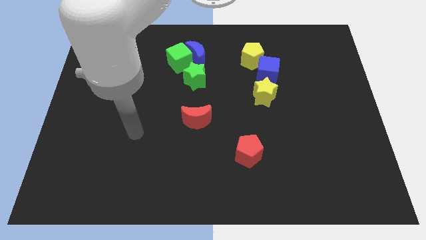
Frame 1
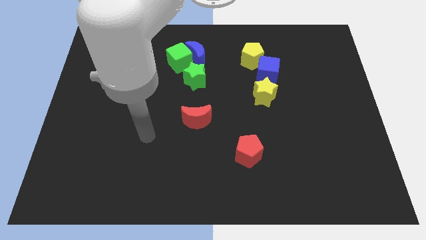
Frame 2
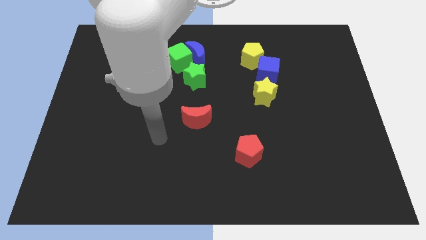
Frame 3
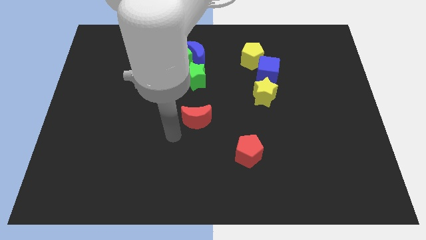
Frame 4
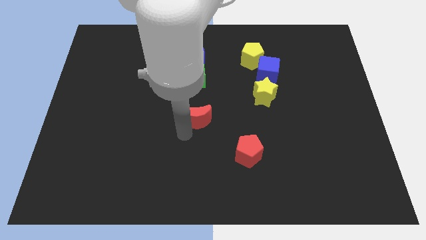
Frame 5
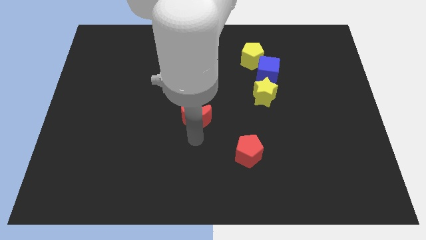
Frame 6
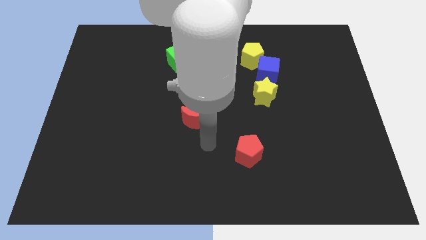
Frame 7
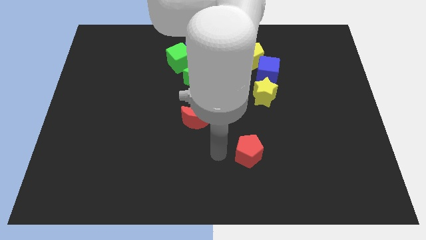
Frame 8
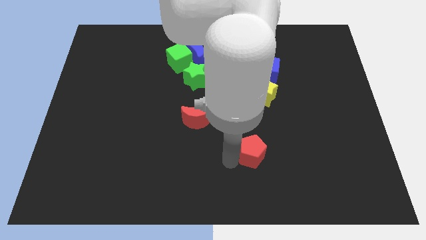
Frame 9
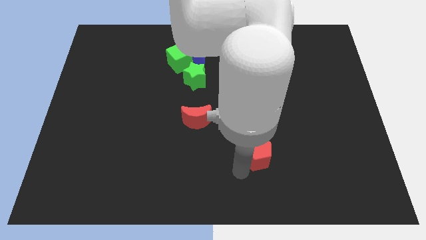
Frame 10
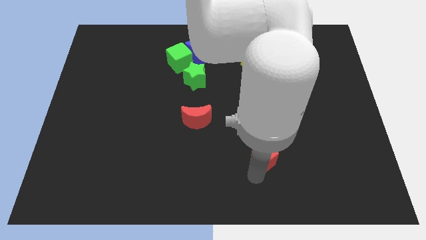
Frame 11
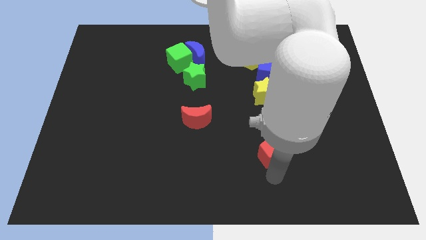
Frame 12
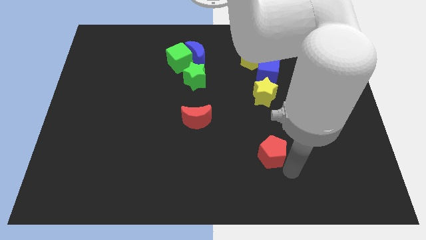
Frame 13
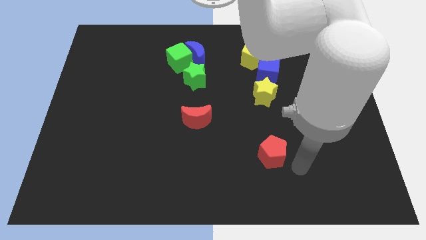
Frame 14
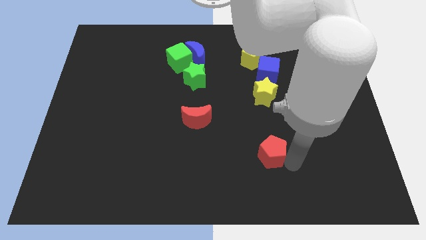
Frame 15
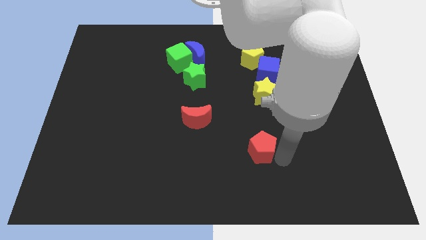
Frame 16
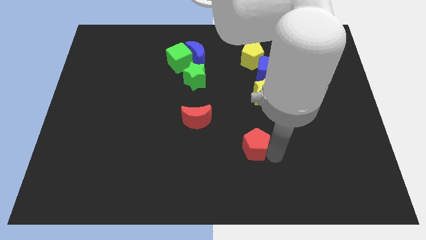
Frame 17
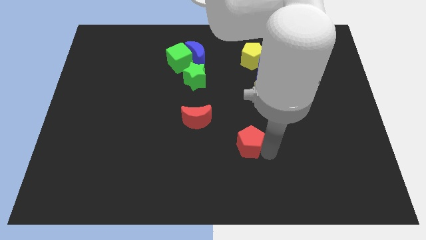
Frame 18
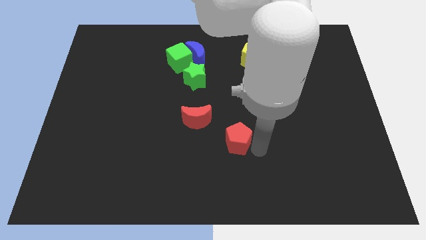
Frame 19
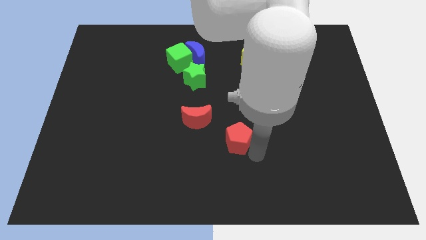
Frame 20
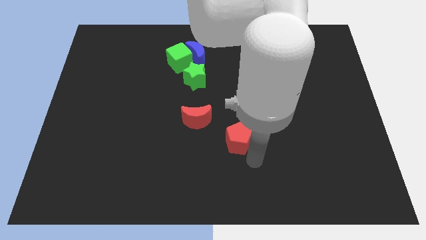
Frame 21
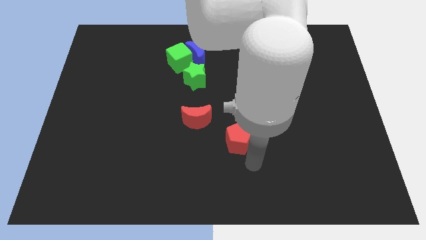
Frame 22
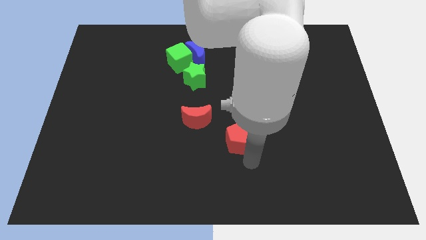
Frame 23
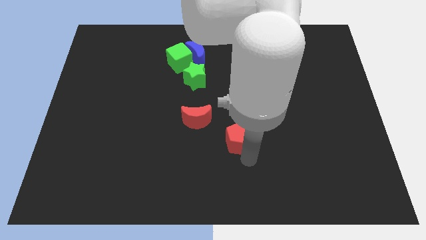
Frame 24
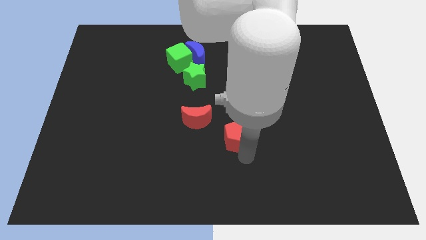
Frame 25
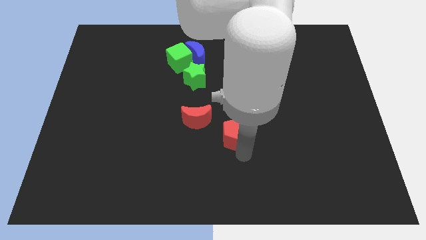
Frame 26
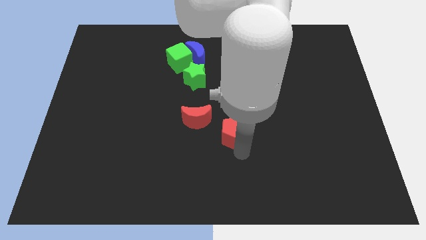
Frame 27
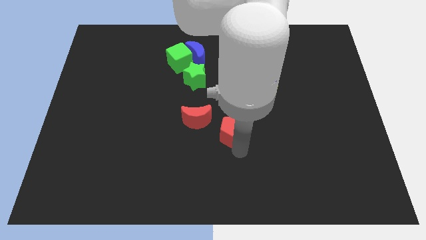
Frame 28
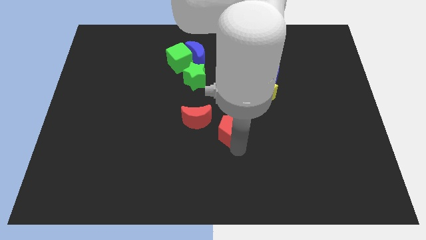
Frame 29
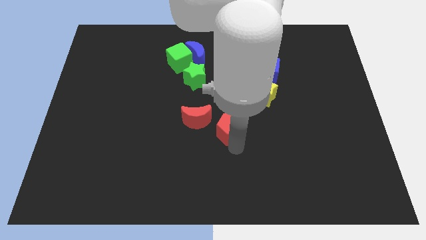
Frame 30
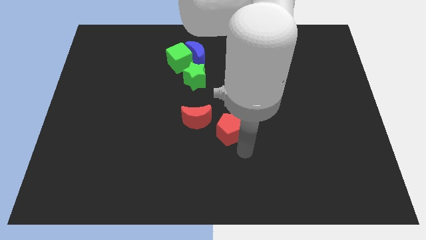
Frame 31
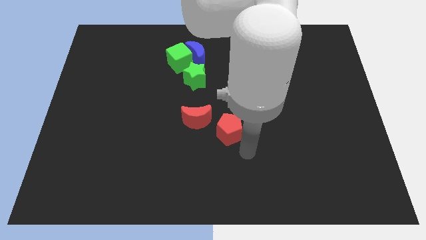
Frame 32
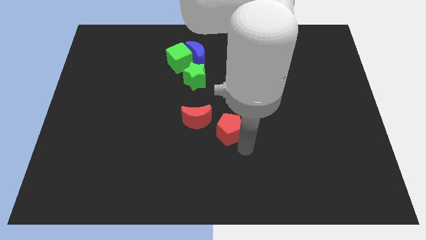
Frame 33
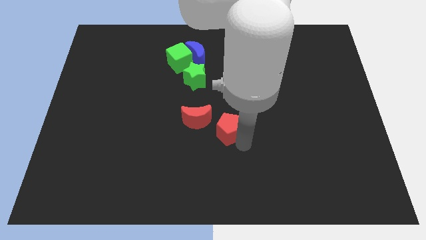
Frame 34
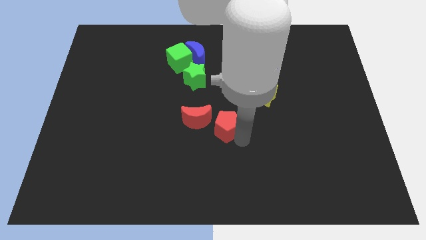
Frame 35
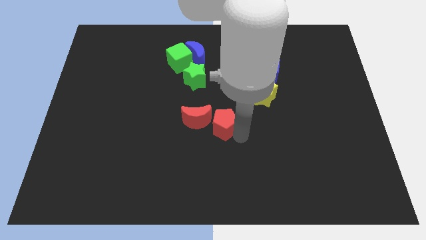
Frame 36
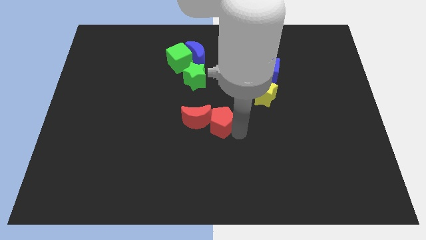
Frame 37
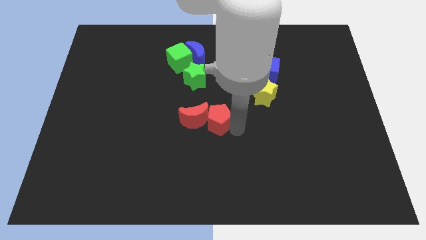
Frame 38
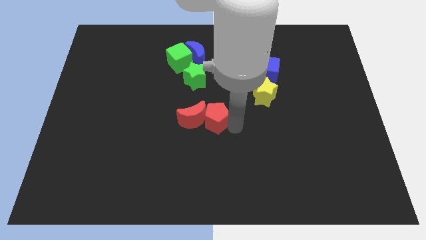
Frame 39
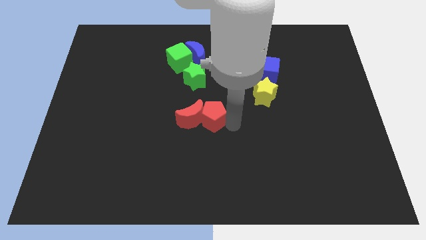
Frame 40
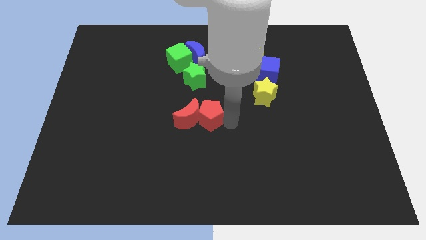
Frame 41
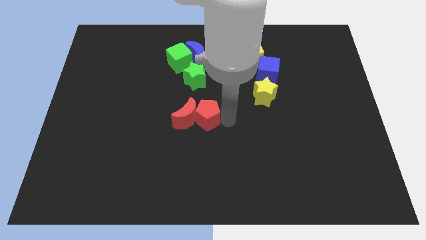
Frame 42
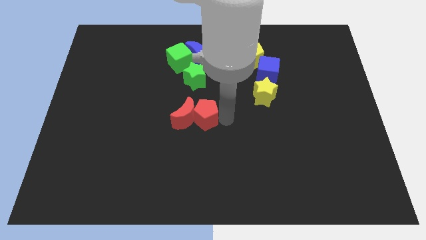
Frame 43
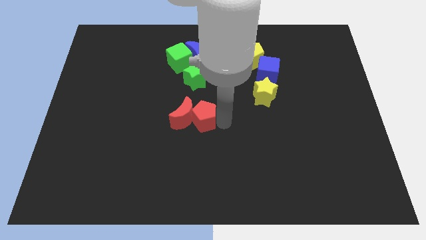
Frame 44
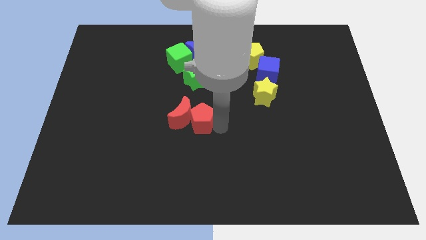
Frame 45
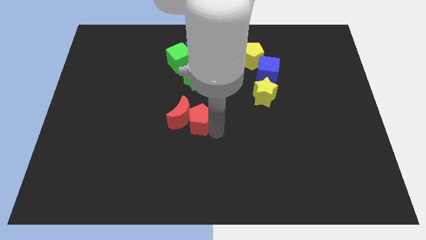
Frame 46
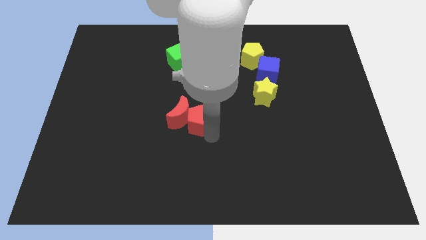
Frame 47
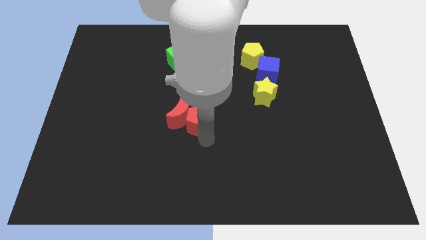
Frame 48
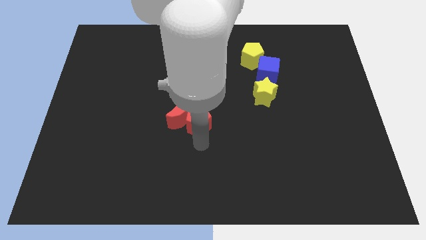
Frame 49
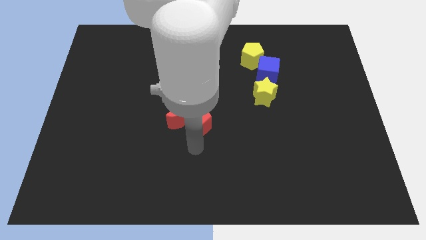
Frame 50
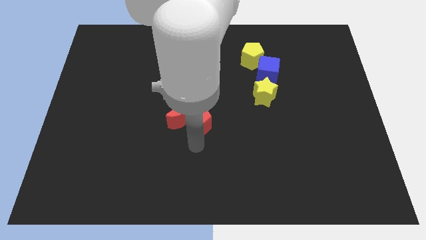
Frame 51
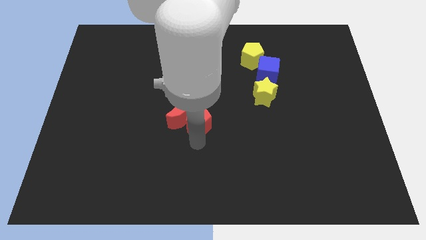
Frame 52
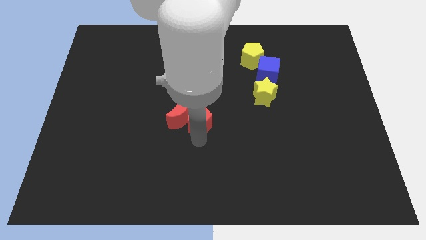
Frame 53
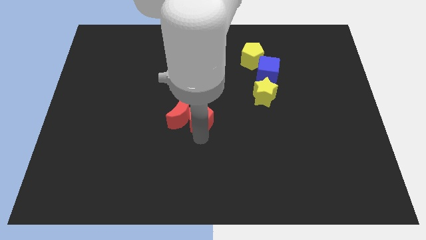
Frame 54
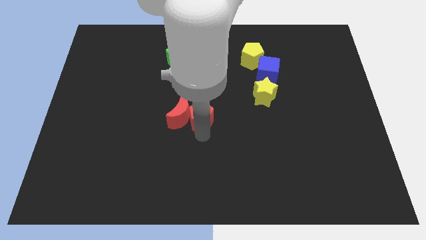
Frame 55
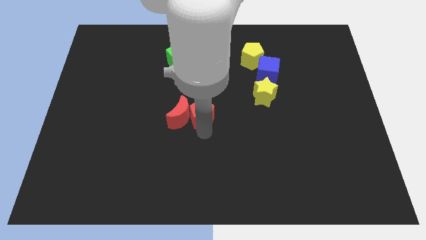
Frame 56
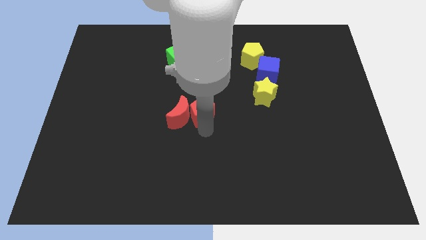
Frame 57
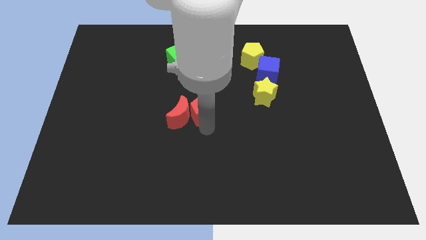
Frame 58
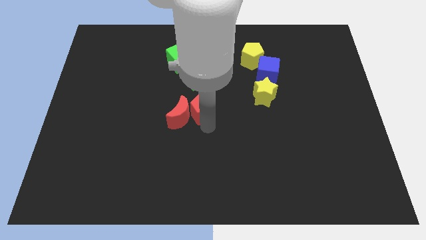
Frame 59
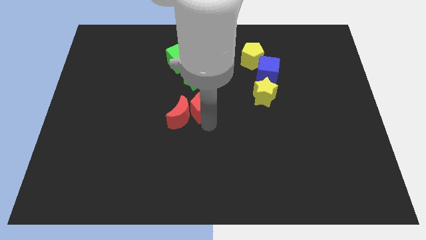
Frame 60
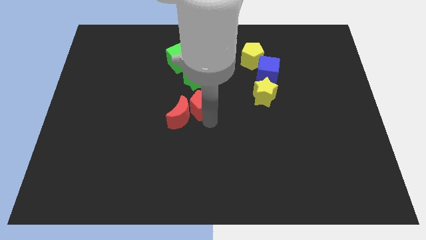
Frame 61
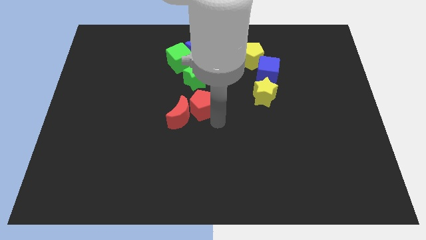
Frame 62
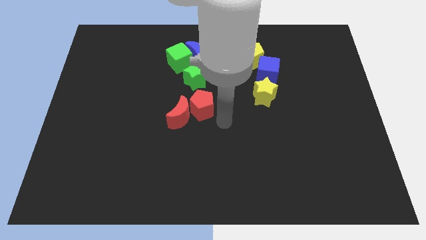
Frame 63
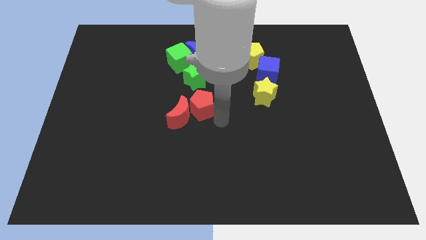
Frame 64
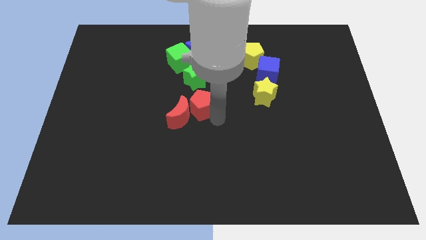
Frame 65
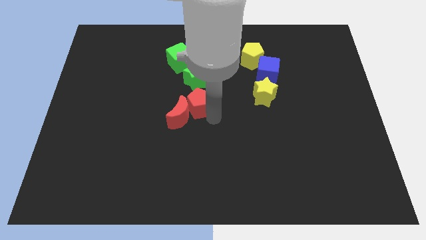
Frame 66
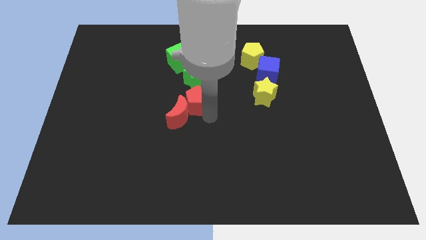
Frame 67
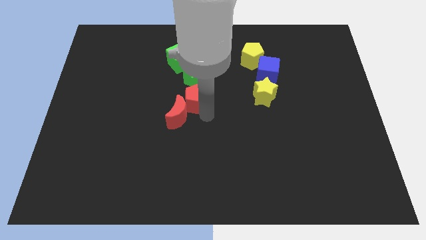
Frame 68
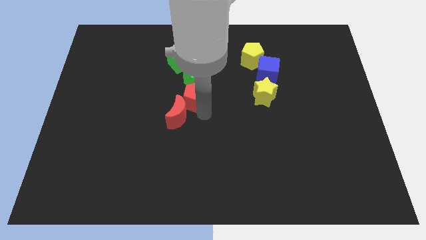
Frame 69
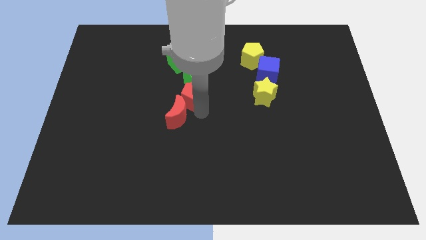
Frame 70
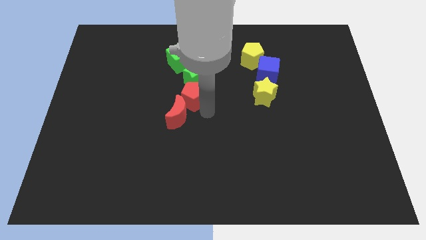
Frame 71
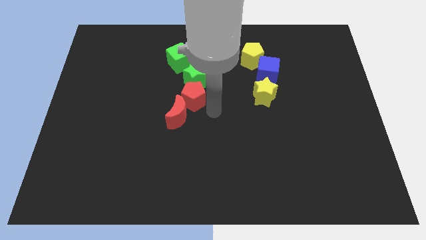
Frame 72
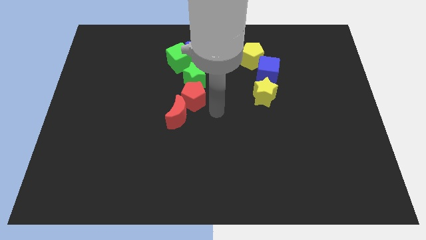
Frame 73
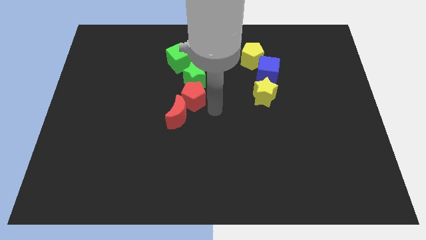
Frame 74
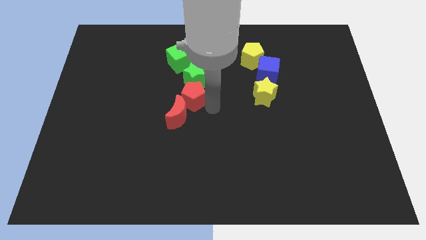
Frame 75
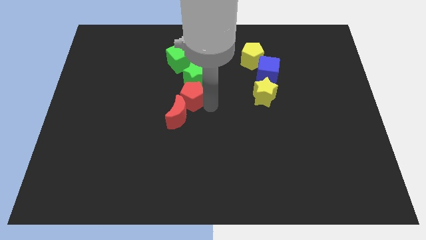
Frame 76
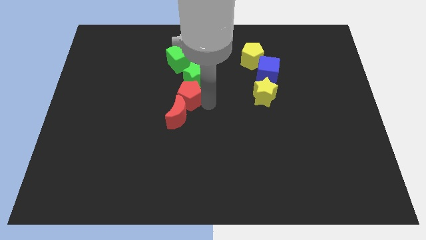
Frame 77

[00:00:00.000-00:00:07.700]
slide the red pentagon diagonally upwards and to the left
